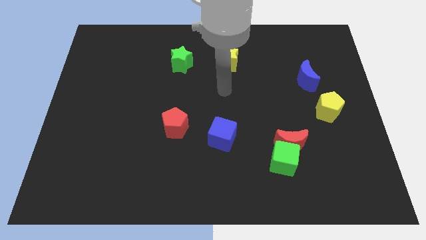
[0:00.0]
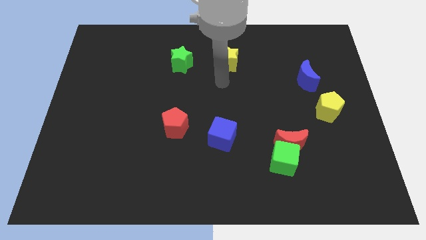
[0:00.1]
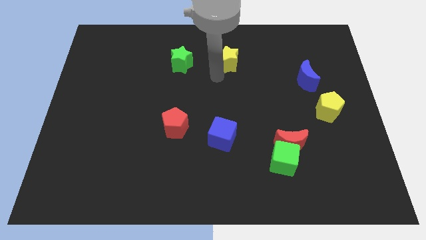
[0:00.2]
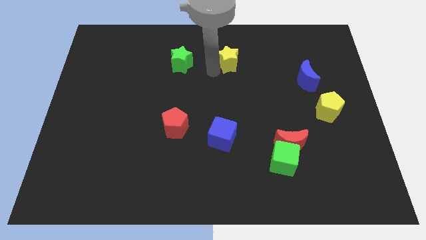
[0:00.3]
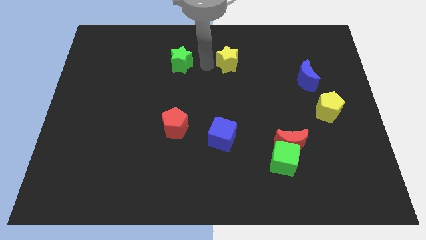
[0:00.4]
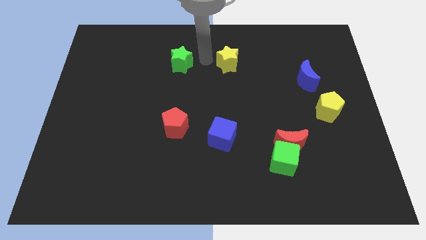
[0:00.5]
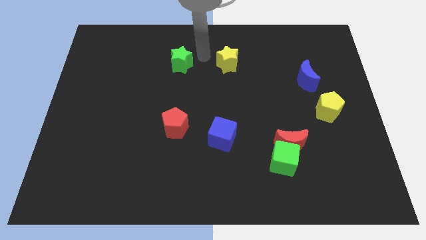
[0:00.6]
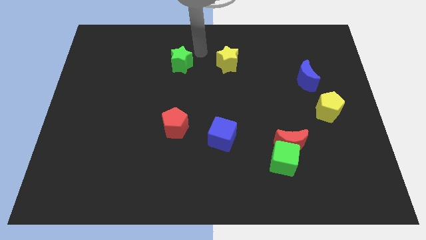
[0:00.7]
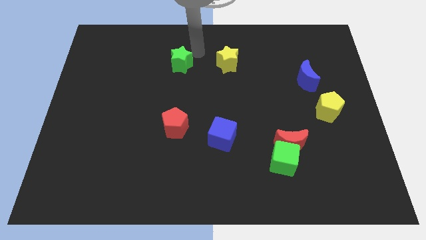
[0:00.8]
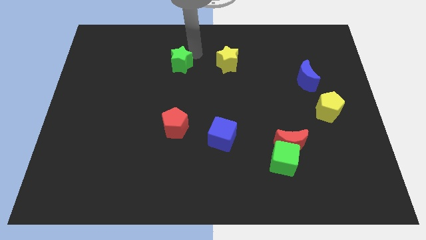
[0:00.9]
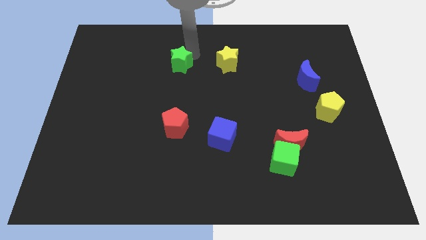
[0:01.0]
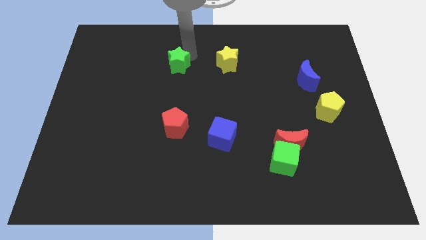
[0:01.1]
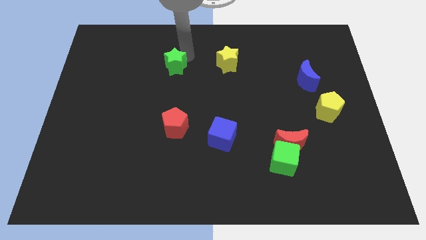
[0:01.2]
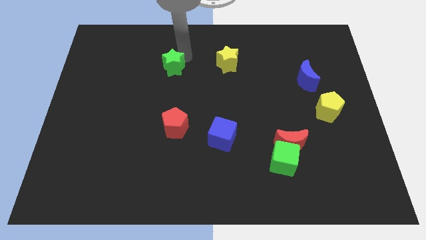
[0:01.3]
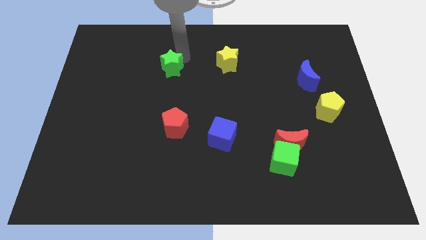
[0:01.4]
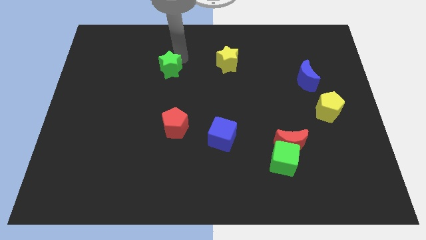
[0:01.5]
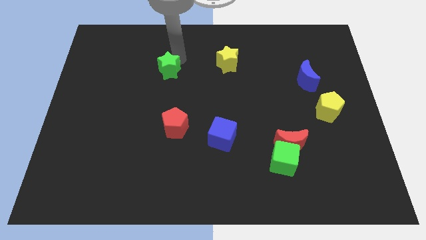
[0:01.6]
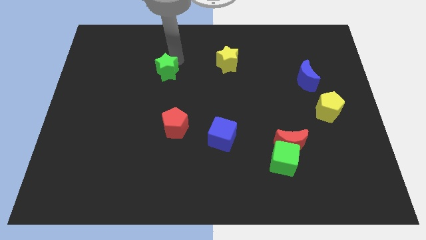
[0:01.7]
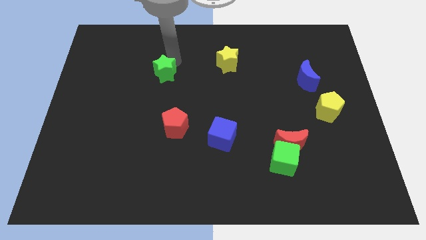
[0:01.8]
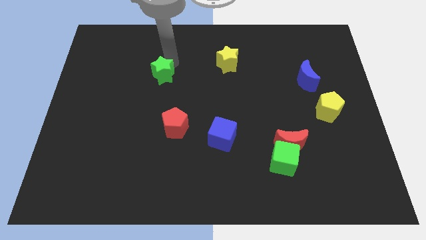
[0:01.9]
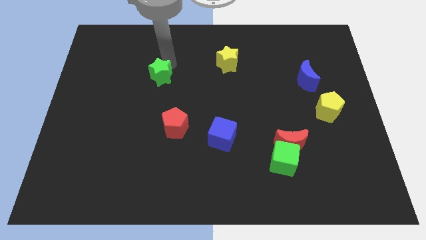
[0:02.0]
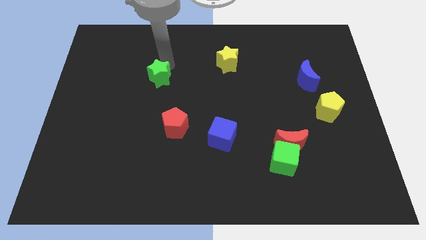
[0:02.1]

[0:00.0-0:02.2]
slide the green star down and then to the left somewhat

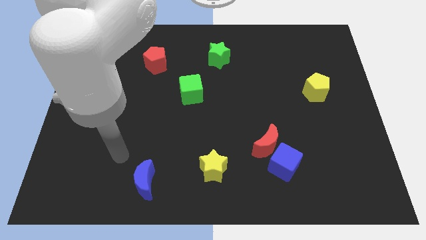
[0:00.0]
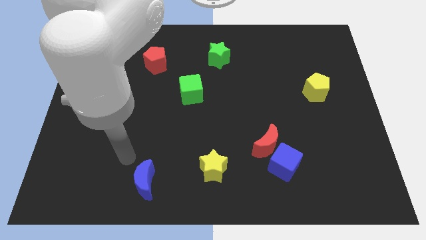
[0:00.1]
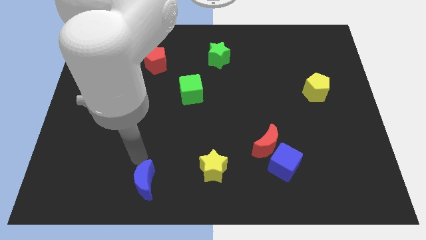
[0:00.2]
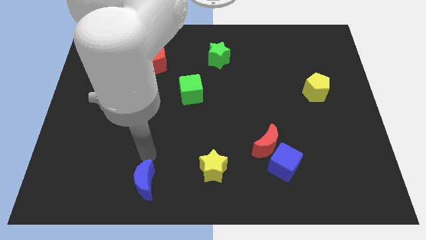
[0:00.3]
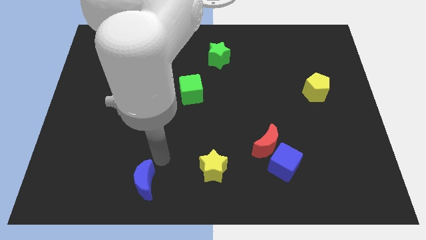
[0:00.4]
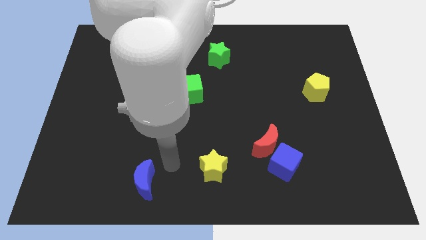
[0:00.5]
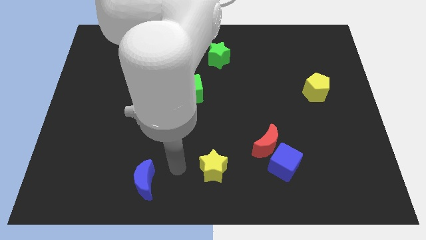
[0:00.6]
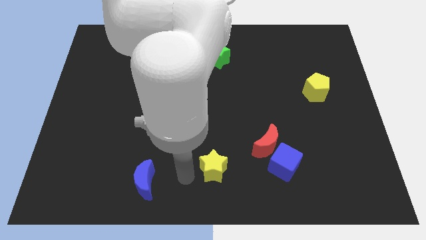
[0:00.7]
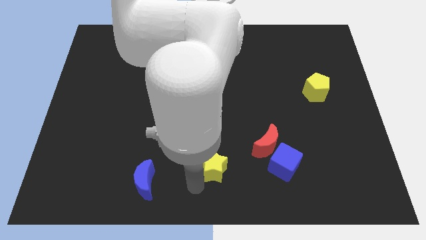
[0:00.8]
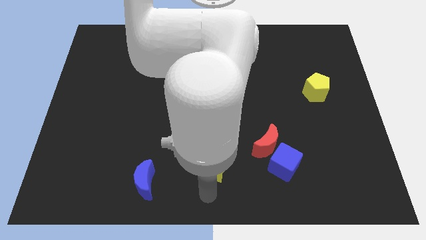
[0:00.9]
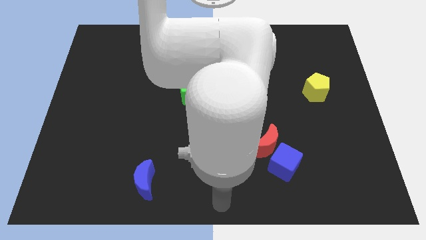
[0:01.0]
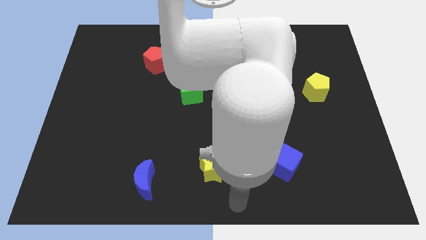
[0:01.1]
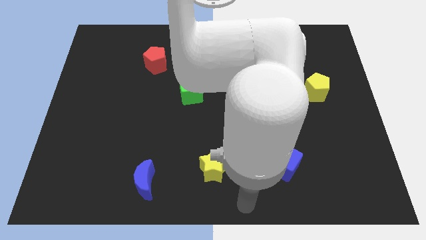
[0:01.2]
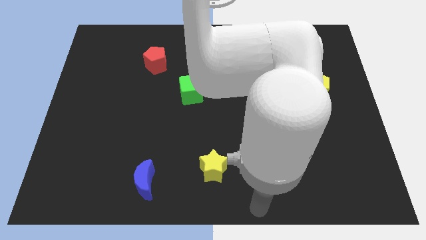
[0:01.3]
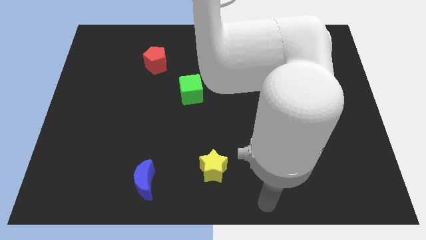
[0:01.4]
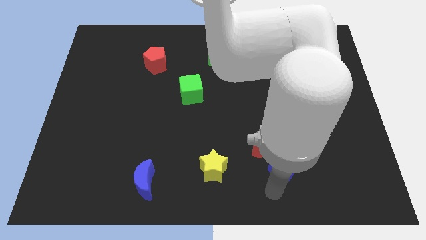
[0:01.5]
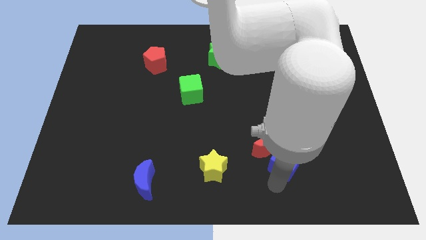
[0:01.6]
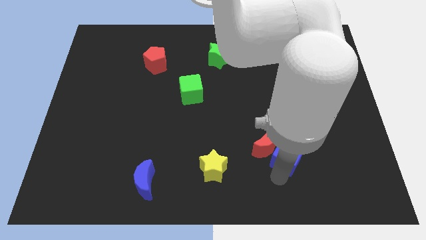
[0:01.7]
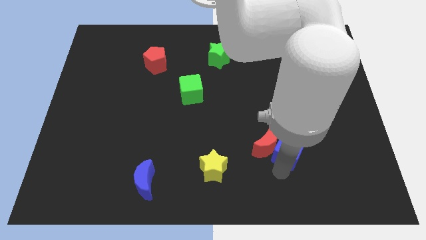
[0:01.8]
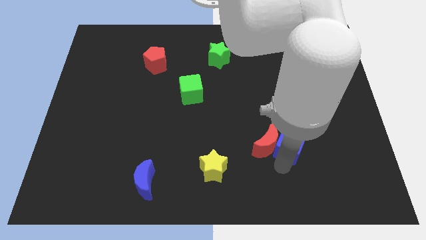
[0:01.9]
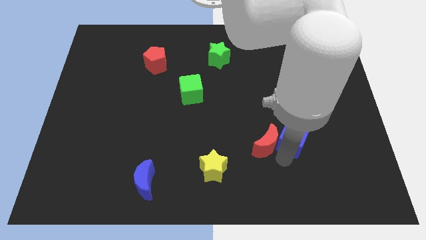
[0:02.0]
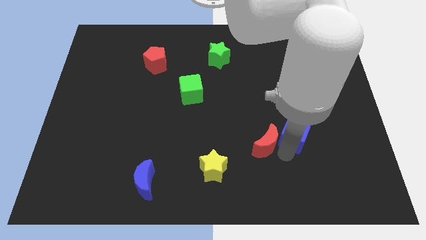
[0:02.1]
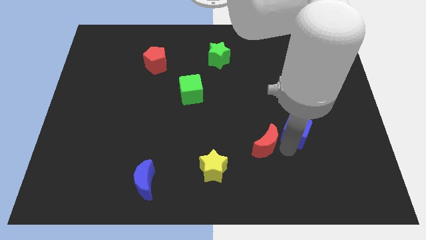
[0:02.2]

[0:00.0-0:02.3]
slightly move the blue cube upwards and then right

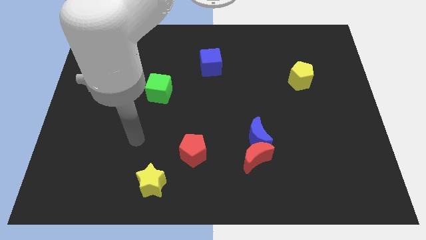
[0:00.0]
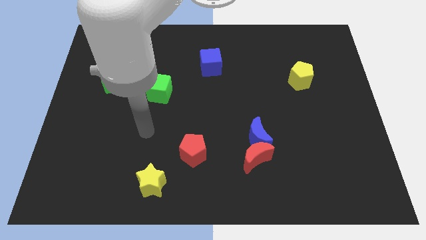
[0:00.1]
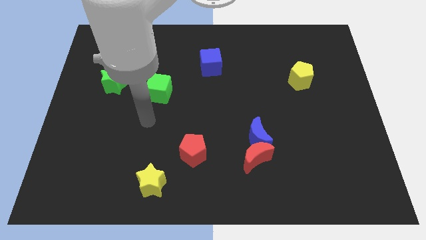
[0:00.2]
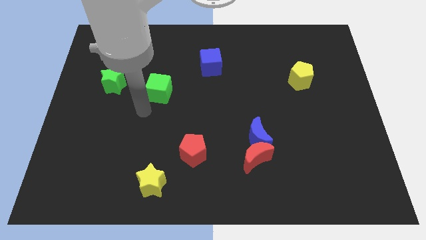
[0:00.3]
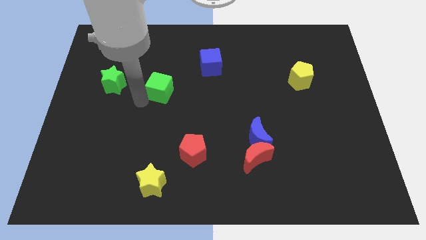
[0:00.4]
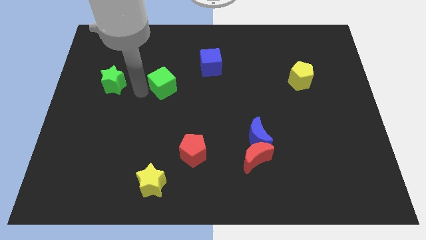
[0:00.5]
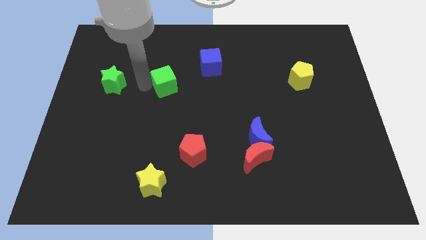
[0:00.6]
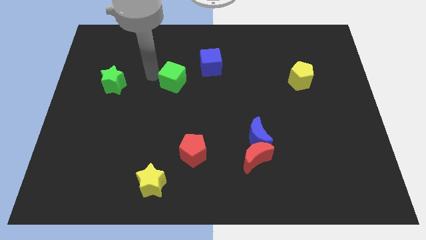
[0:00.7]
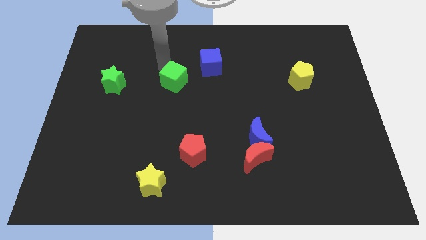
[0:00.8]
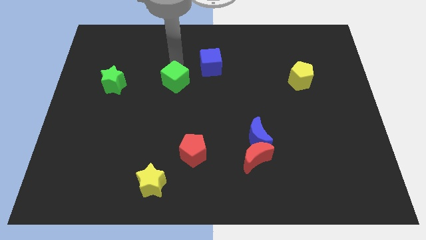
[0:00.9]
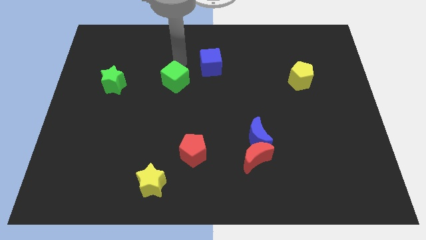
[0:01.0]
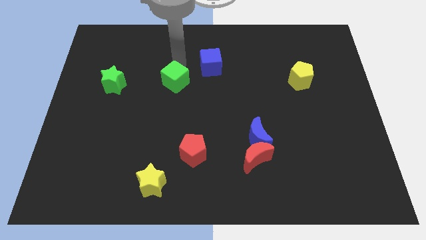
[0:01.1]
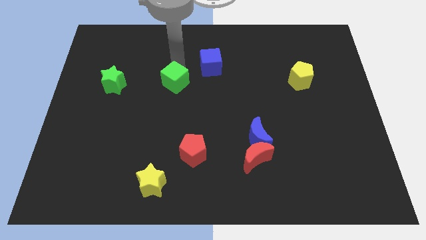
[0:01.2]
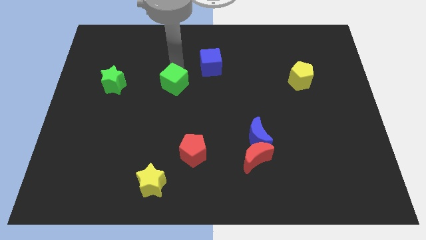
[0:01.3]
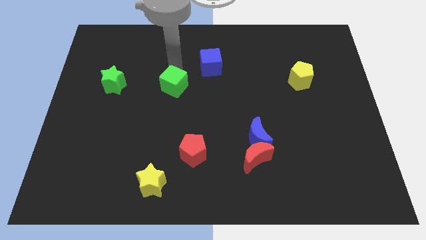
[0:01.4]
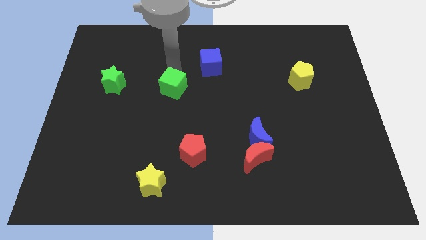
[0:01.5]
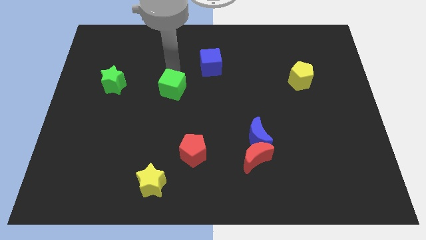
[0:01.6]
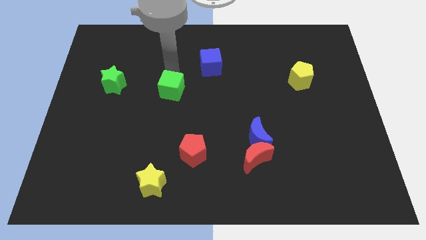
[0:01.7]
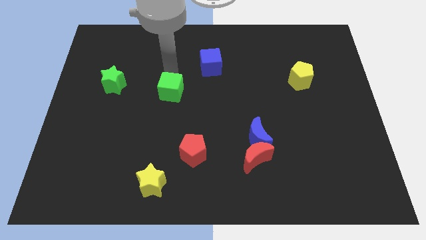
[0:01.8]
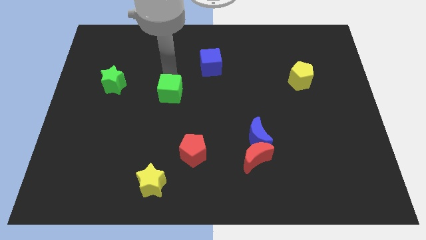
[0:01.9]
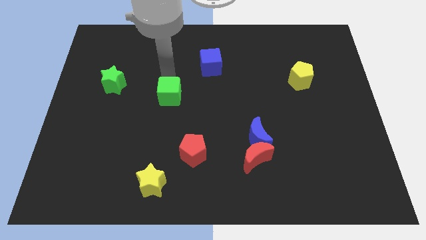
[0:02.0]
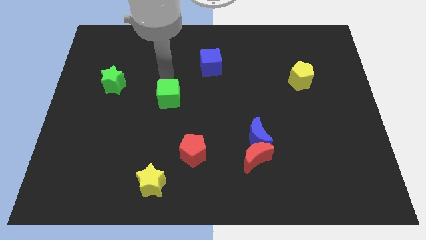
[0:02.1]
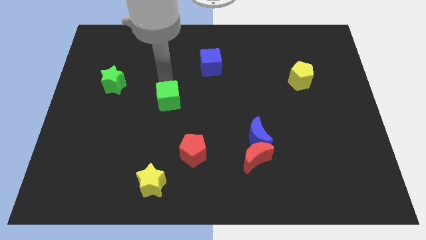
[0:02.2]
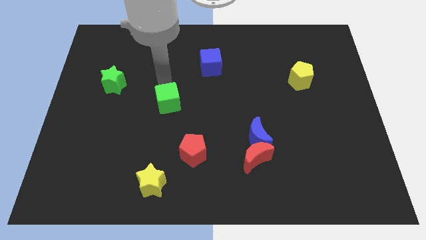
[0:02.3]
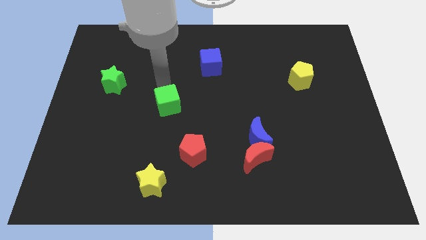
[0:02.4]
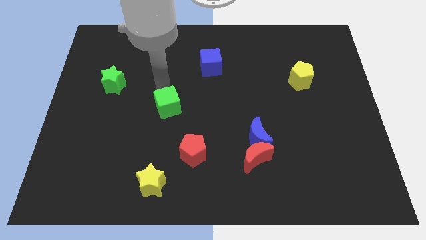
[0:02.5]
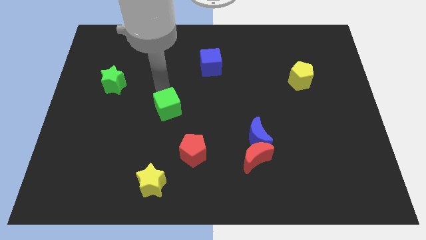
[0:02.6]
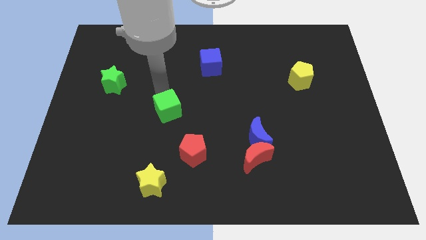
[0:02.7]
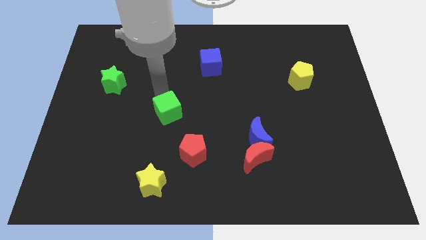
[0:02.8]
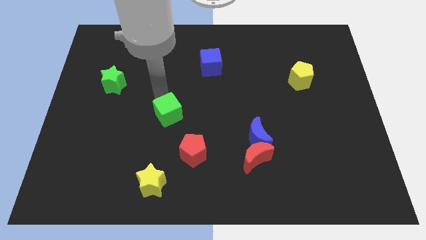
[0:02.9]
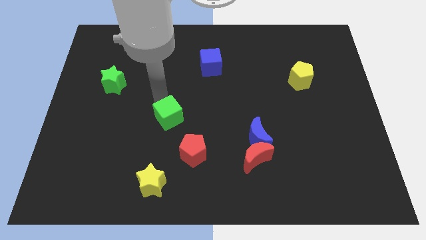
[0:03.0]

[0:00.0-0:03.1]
push the green cube a little bit down and then to the right

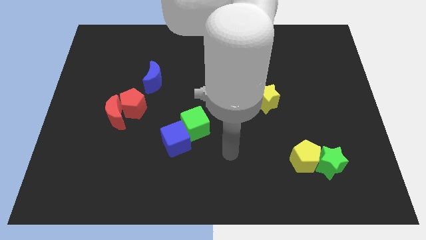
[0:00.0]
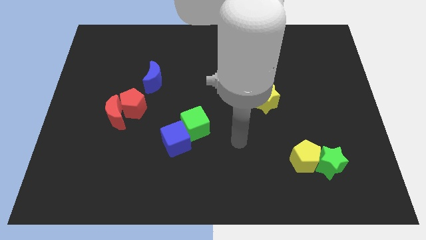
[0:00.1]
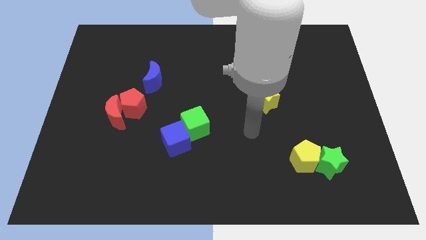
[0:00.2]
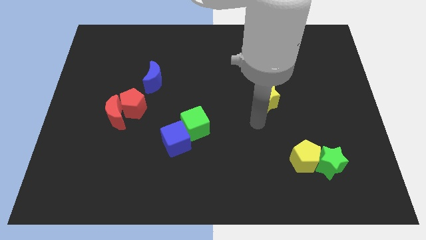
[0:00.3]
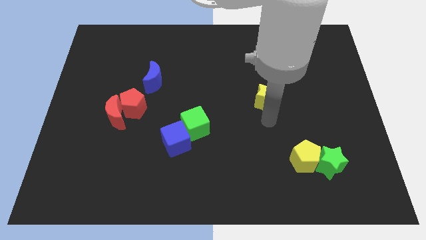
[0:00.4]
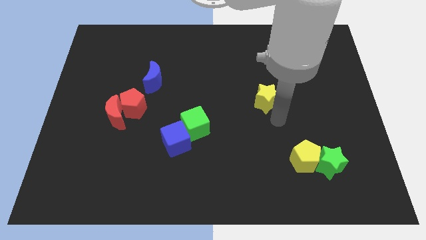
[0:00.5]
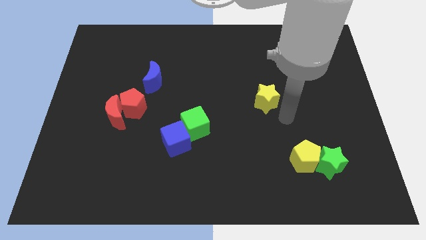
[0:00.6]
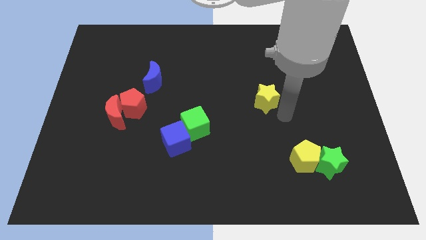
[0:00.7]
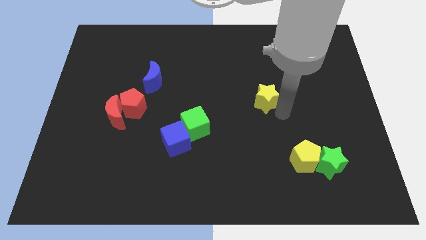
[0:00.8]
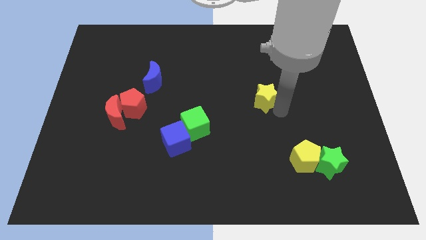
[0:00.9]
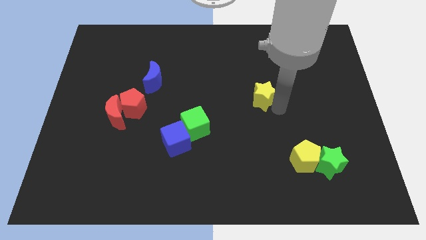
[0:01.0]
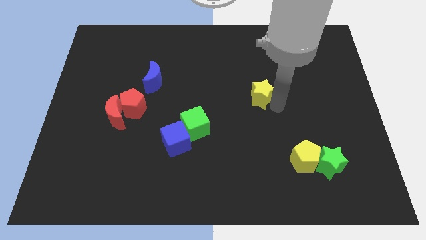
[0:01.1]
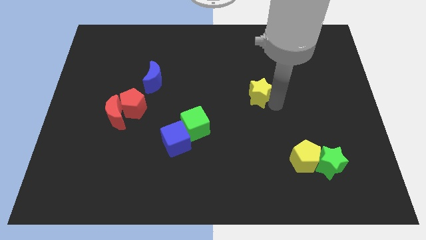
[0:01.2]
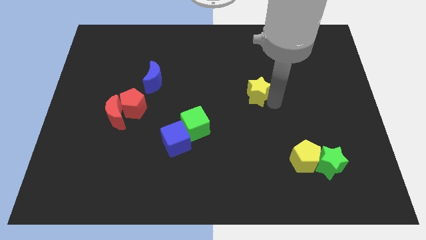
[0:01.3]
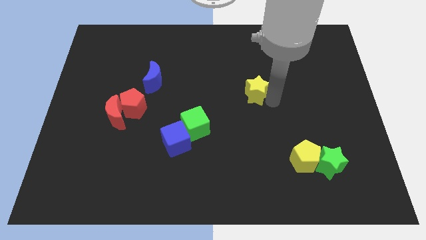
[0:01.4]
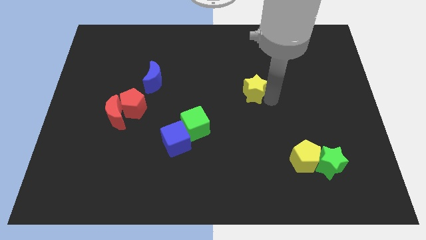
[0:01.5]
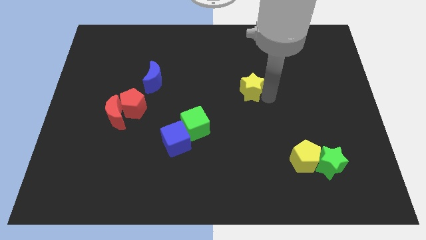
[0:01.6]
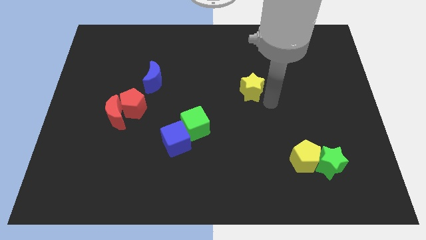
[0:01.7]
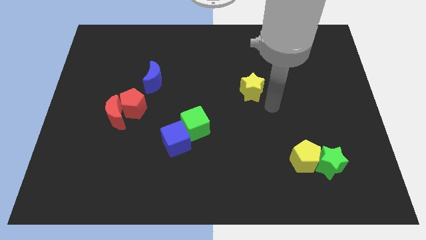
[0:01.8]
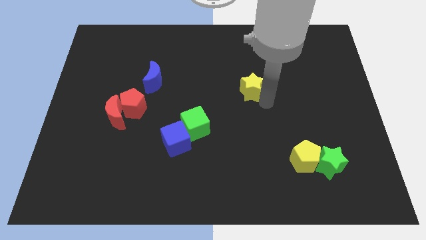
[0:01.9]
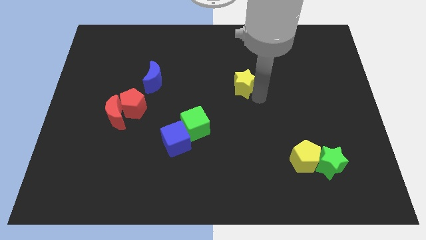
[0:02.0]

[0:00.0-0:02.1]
push the yellow star somewhat up and then left
